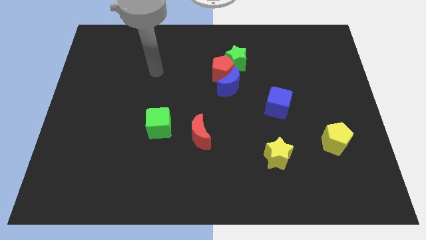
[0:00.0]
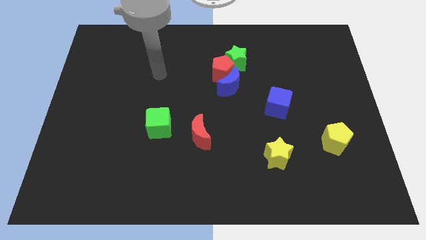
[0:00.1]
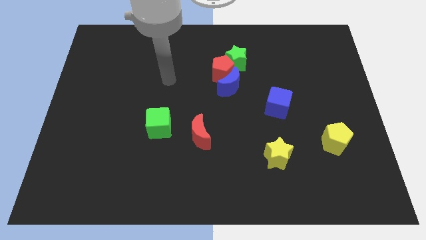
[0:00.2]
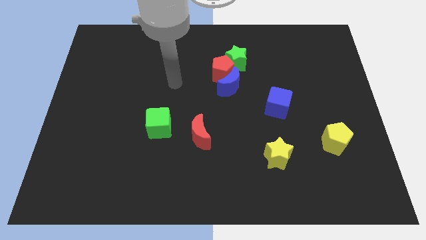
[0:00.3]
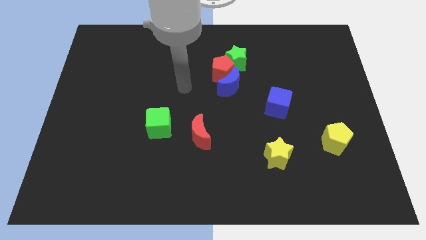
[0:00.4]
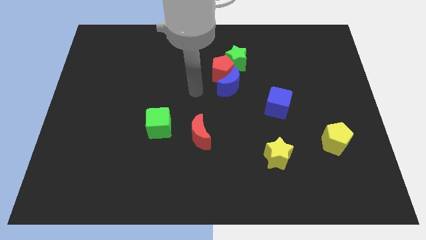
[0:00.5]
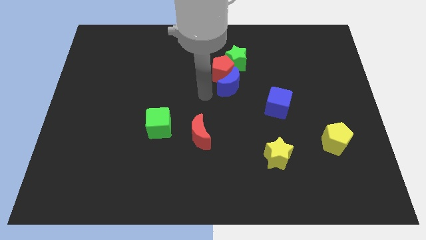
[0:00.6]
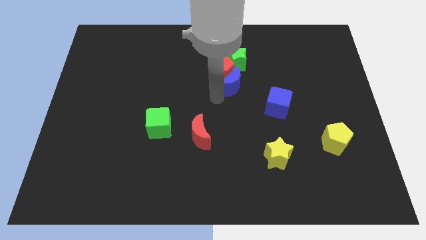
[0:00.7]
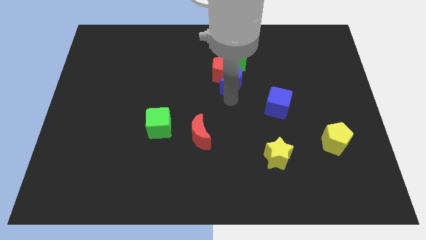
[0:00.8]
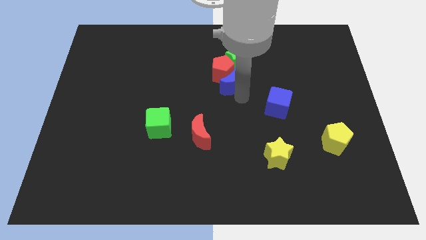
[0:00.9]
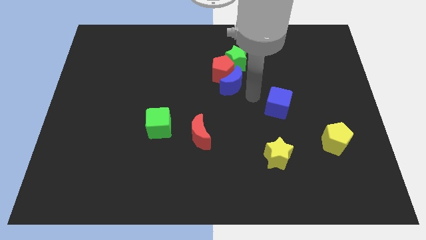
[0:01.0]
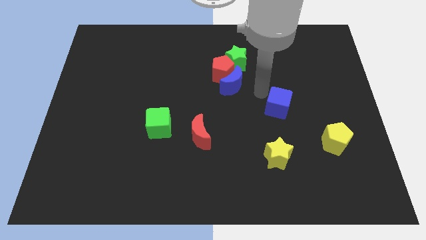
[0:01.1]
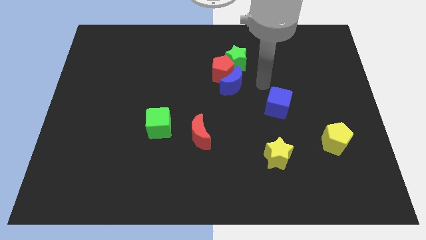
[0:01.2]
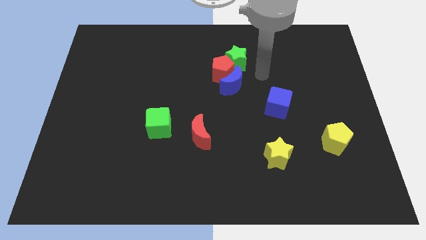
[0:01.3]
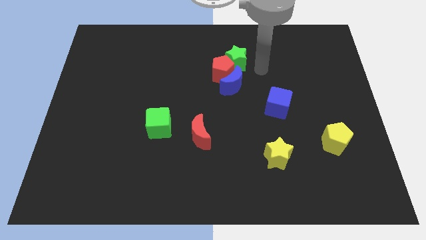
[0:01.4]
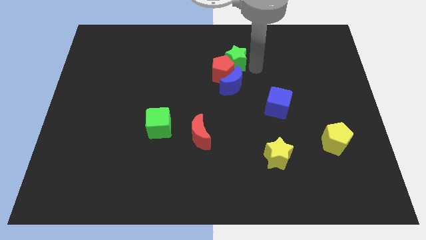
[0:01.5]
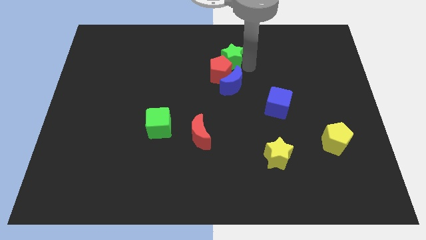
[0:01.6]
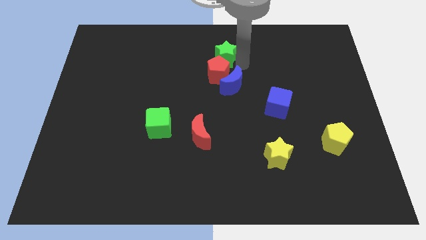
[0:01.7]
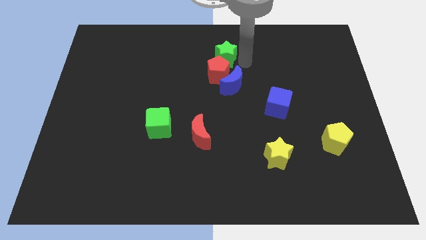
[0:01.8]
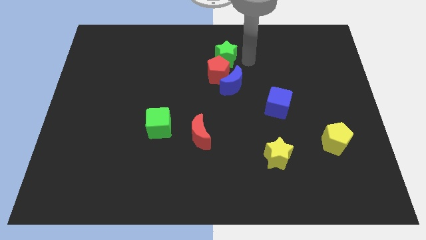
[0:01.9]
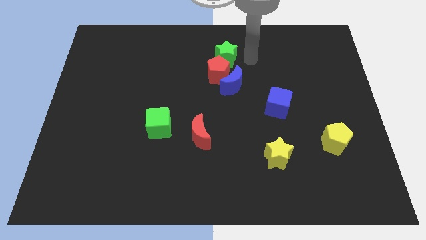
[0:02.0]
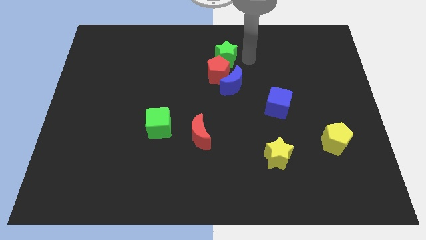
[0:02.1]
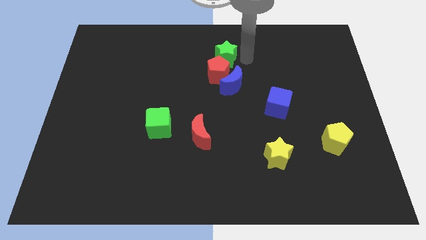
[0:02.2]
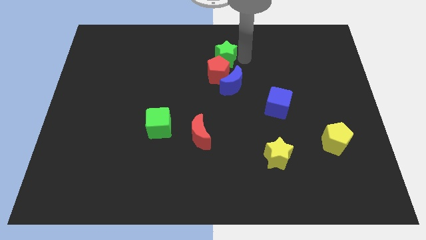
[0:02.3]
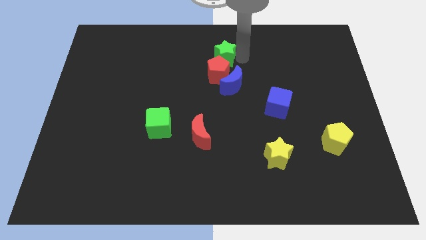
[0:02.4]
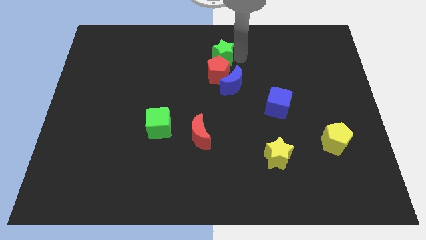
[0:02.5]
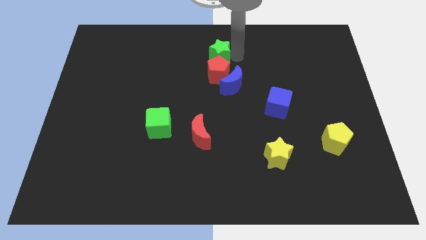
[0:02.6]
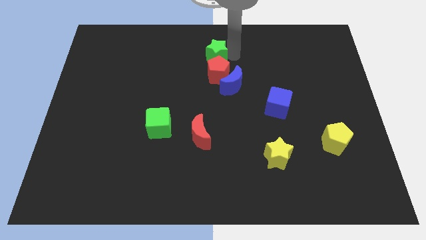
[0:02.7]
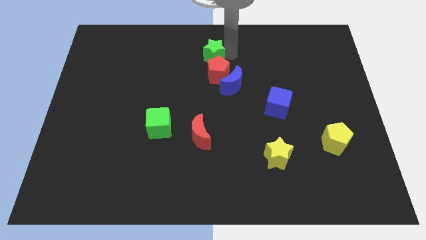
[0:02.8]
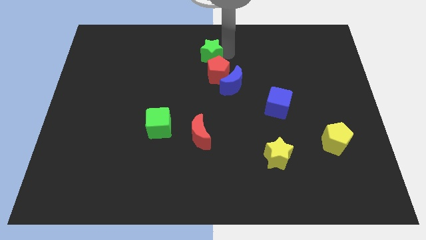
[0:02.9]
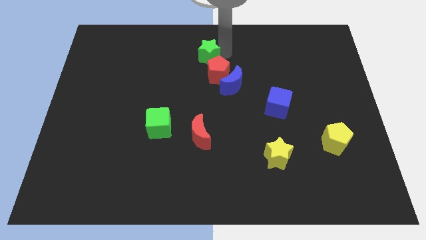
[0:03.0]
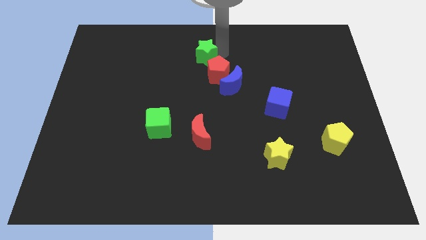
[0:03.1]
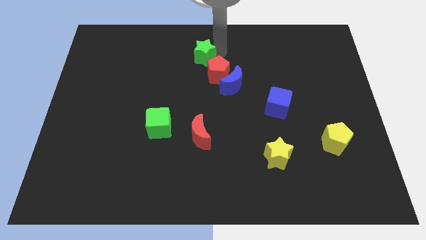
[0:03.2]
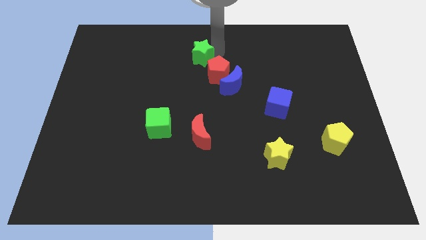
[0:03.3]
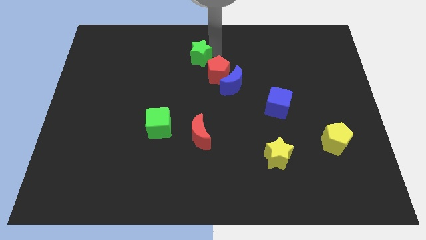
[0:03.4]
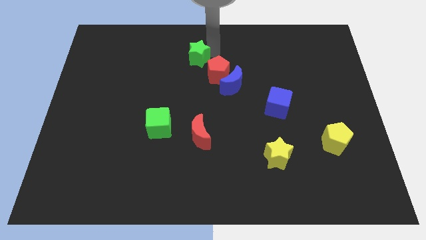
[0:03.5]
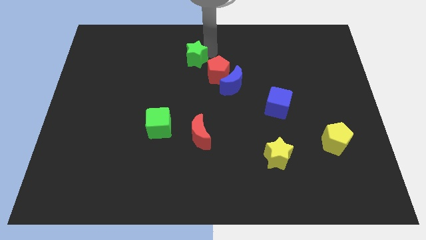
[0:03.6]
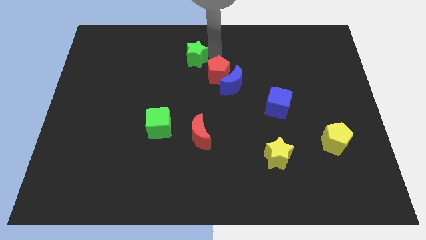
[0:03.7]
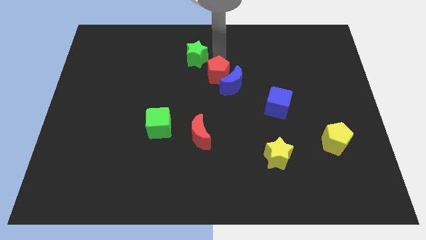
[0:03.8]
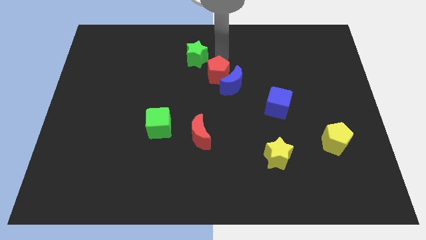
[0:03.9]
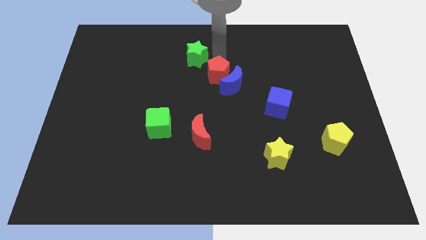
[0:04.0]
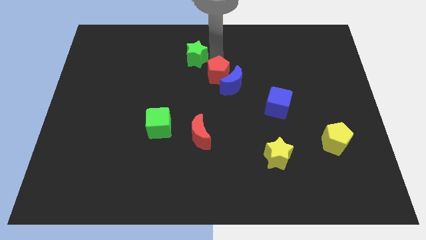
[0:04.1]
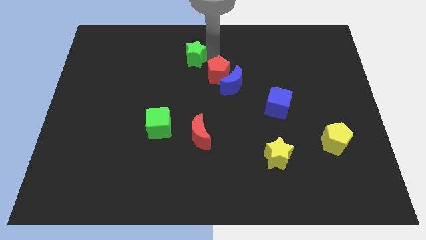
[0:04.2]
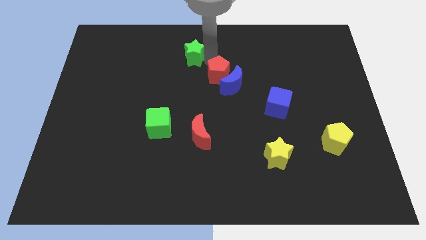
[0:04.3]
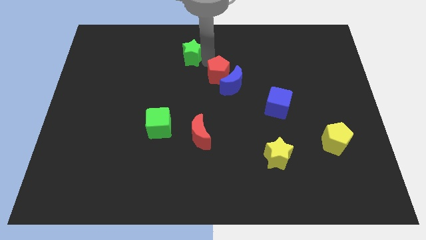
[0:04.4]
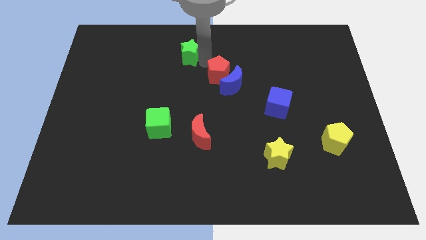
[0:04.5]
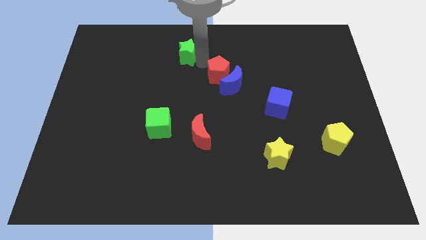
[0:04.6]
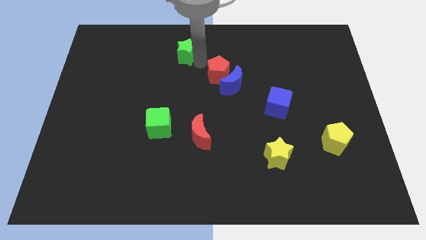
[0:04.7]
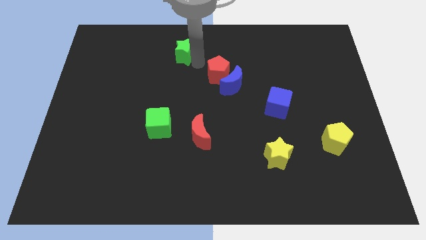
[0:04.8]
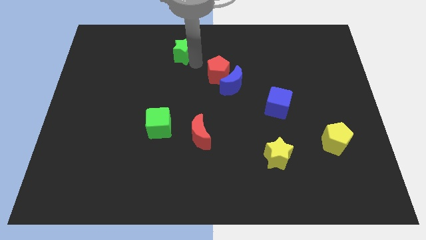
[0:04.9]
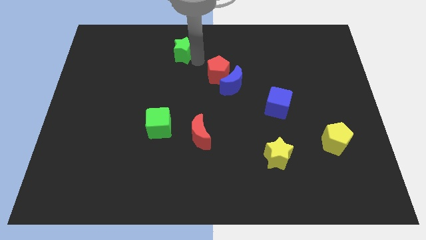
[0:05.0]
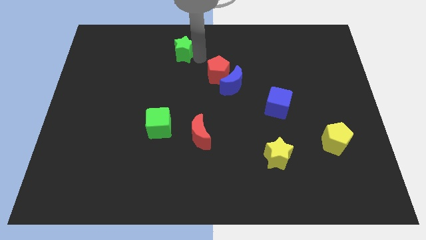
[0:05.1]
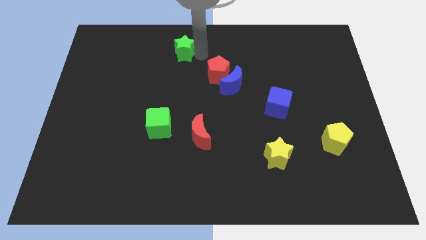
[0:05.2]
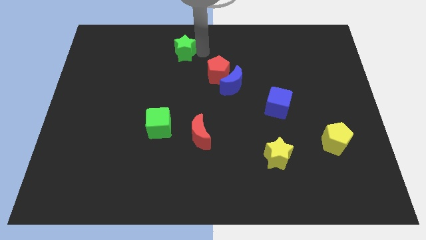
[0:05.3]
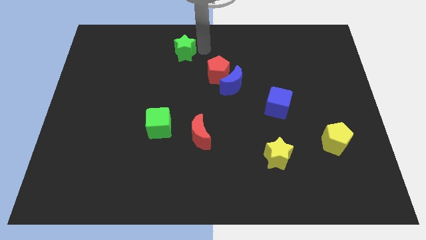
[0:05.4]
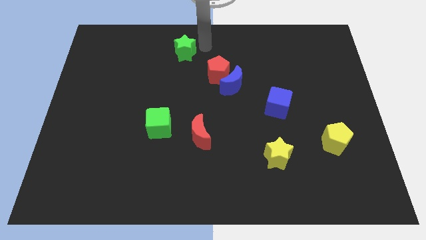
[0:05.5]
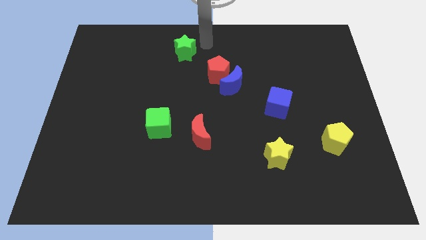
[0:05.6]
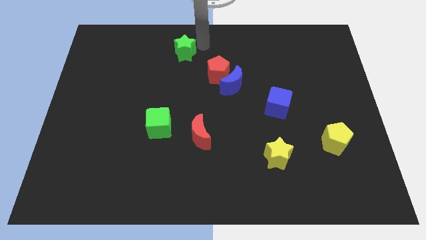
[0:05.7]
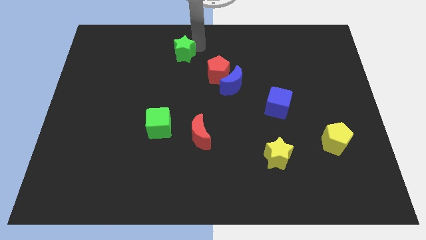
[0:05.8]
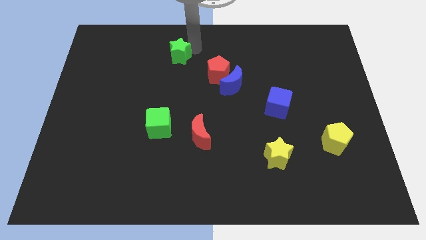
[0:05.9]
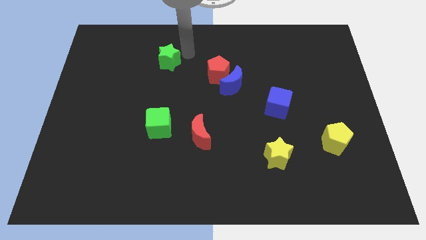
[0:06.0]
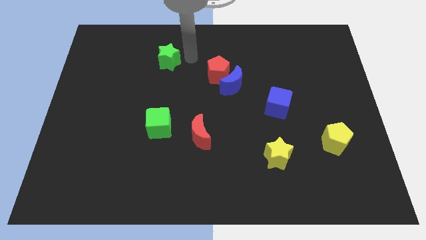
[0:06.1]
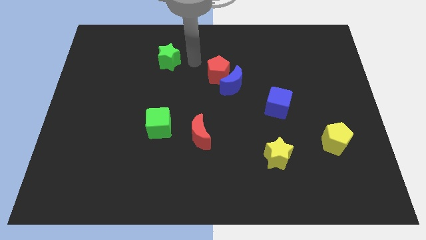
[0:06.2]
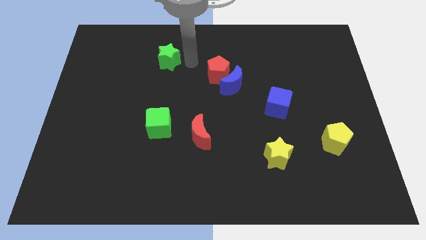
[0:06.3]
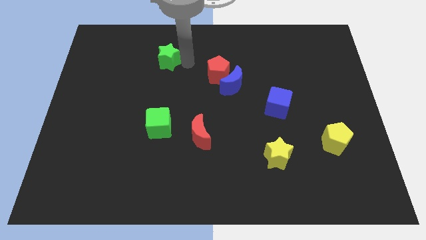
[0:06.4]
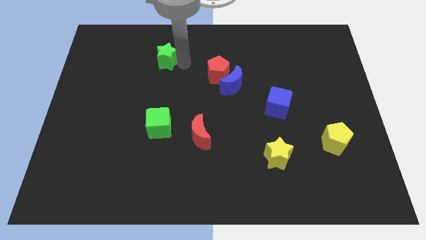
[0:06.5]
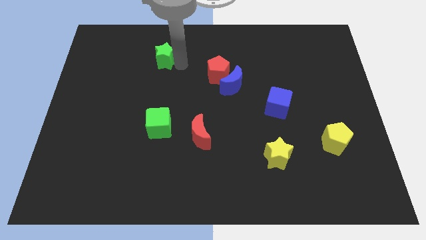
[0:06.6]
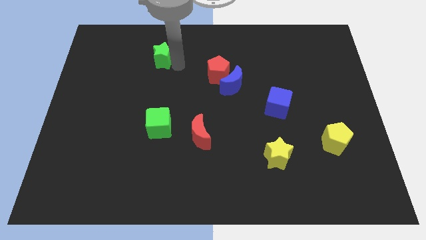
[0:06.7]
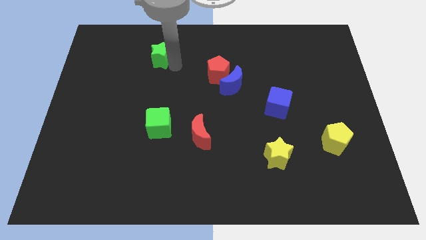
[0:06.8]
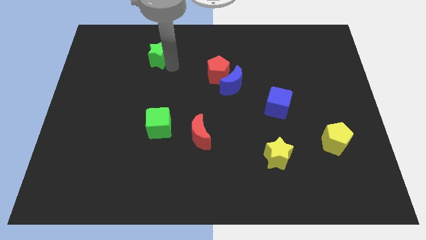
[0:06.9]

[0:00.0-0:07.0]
push the green star left

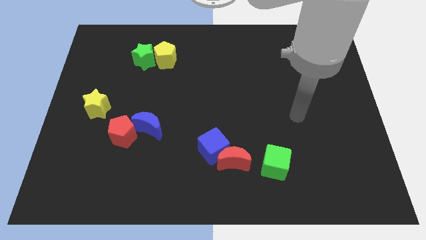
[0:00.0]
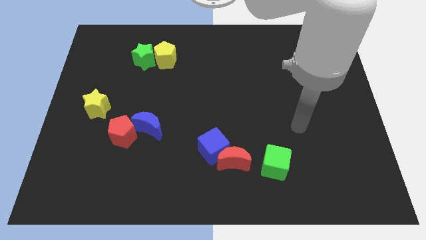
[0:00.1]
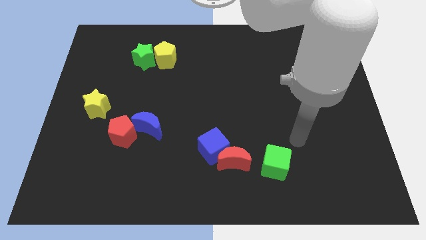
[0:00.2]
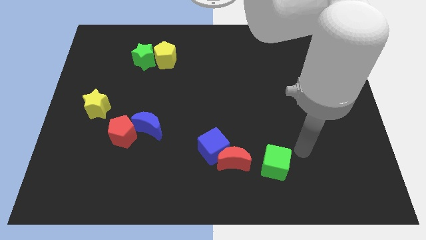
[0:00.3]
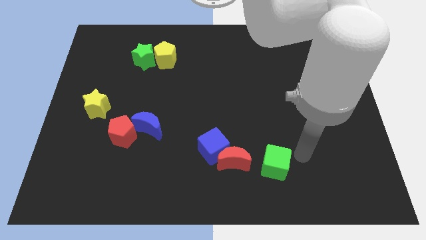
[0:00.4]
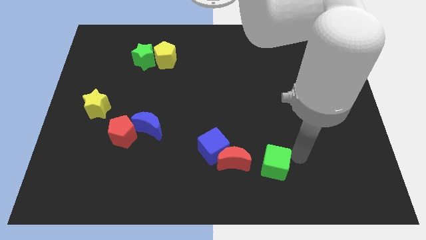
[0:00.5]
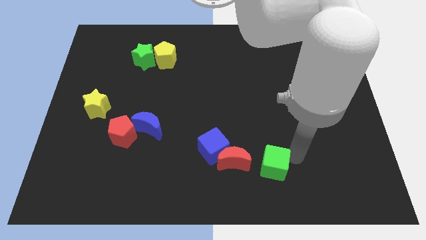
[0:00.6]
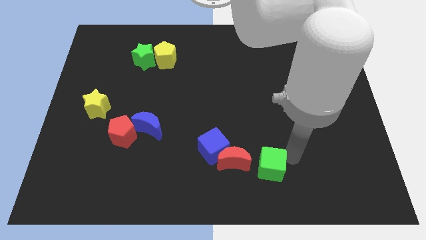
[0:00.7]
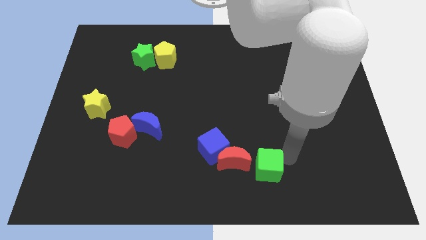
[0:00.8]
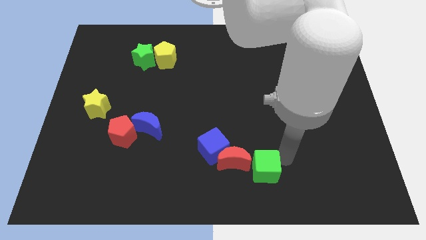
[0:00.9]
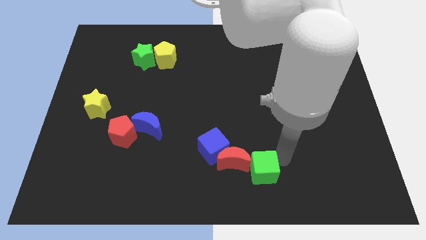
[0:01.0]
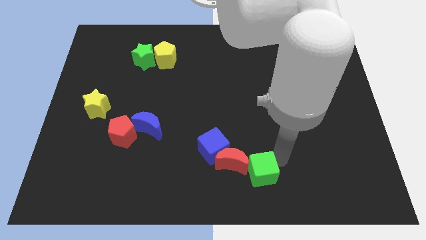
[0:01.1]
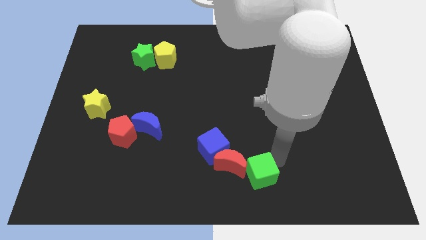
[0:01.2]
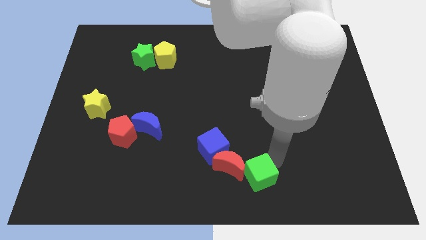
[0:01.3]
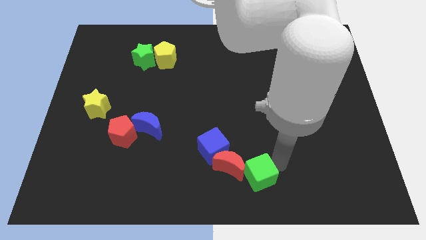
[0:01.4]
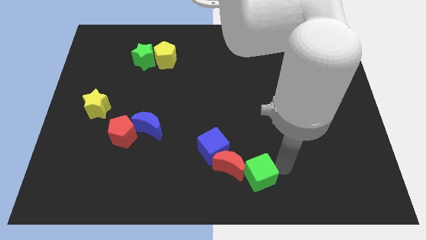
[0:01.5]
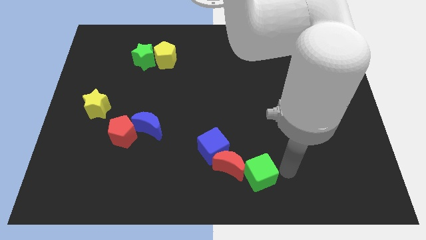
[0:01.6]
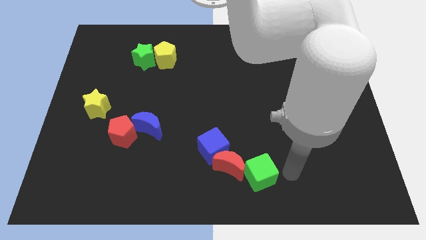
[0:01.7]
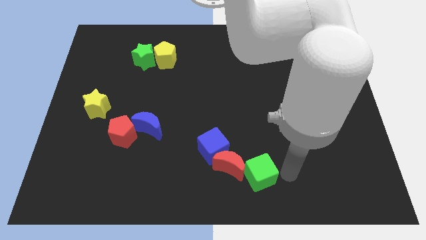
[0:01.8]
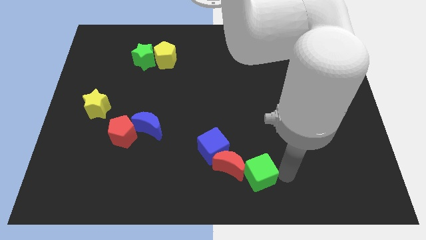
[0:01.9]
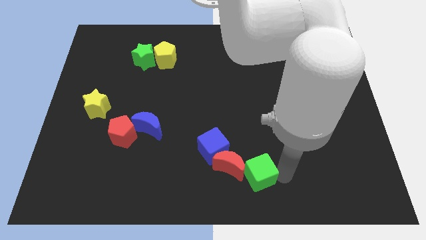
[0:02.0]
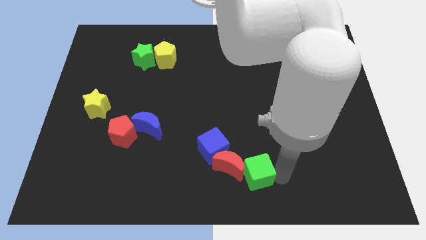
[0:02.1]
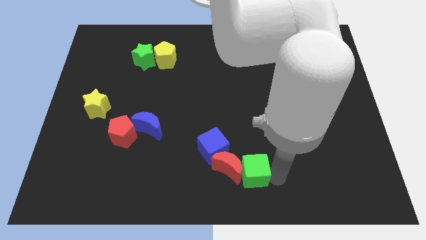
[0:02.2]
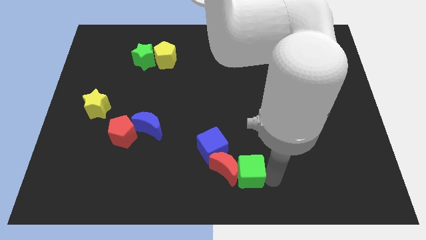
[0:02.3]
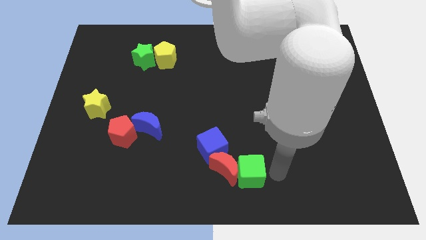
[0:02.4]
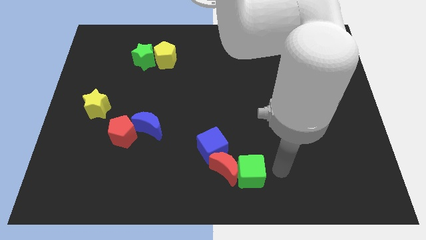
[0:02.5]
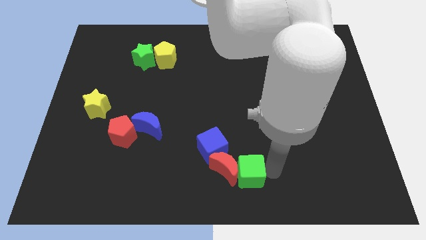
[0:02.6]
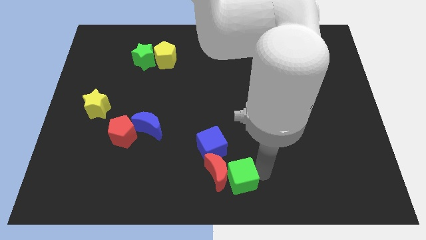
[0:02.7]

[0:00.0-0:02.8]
move the green cube to the left slightly
